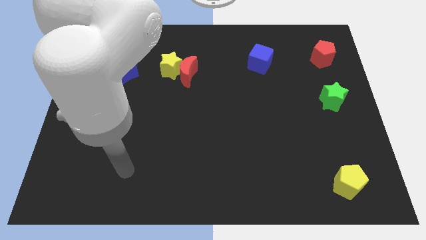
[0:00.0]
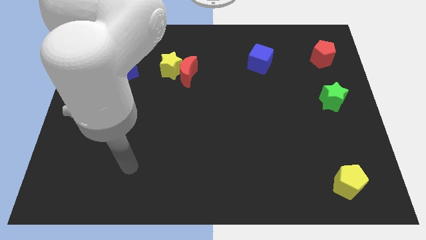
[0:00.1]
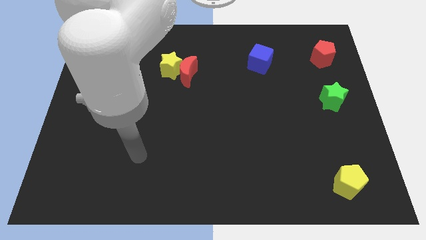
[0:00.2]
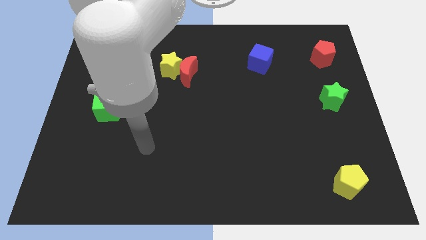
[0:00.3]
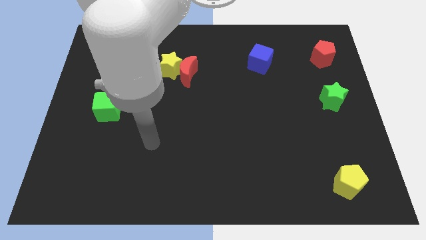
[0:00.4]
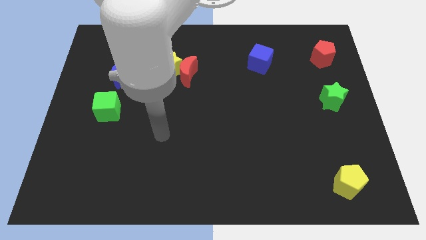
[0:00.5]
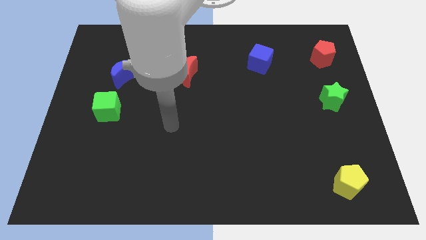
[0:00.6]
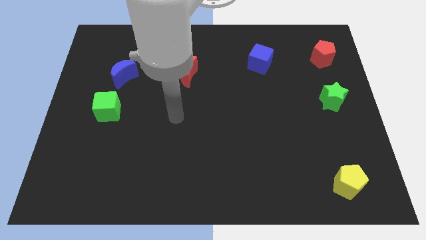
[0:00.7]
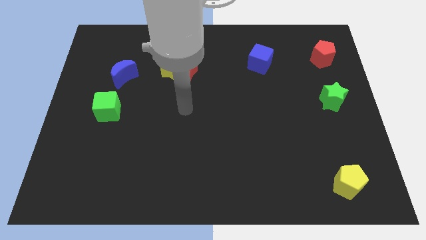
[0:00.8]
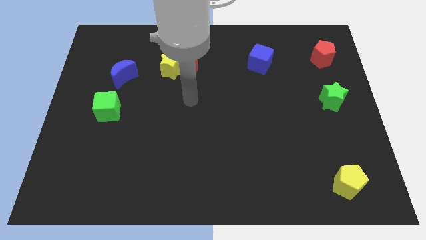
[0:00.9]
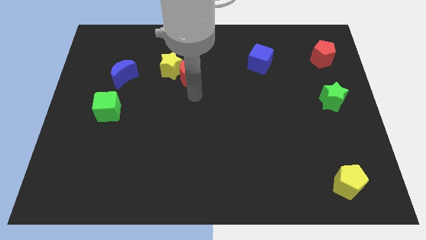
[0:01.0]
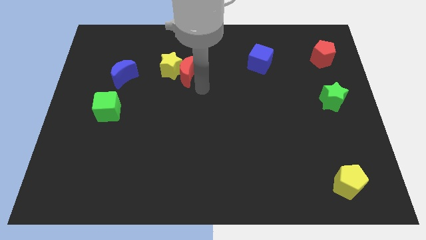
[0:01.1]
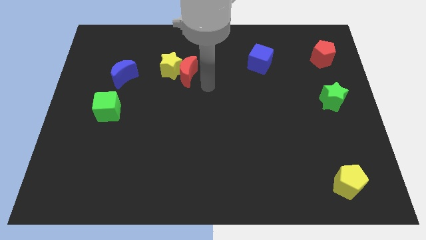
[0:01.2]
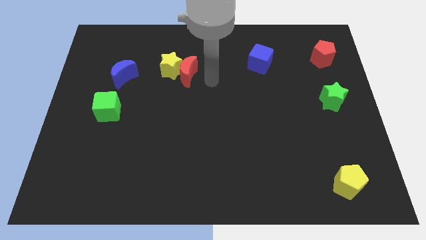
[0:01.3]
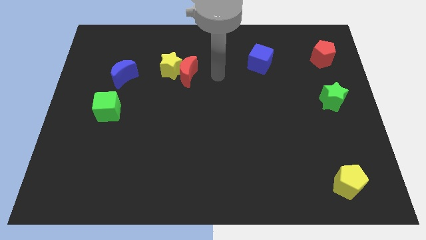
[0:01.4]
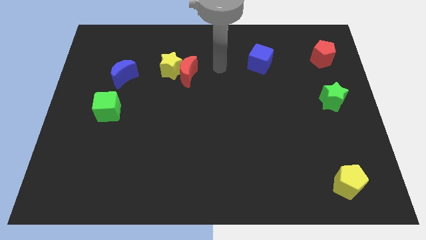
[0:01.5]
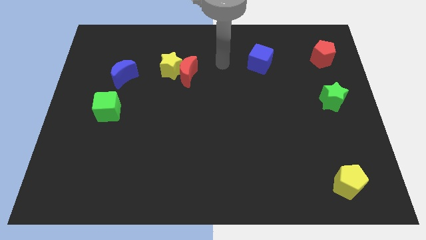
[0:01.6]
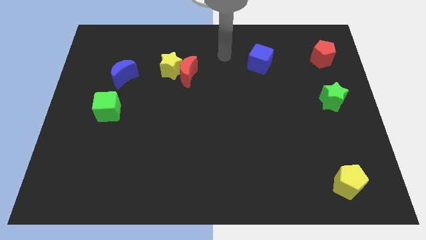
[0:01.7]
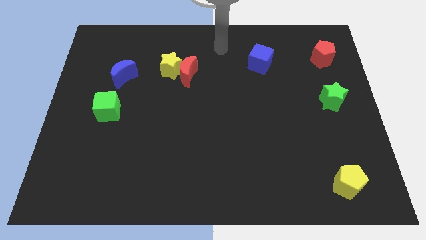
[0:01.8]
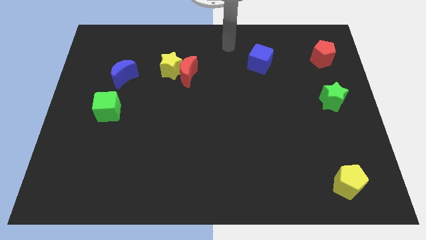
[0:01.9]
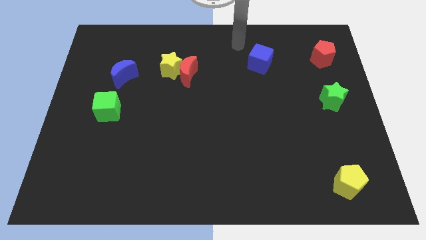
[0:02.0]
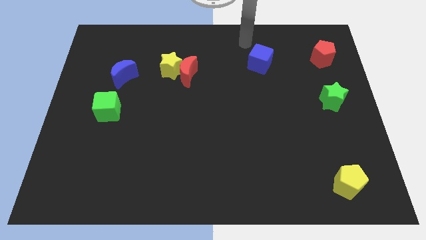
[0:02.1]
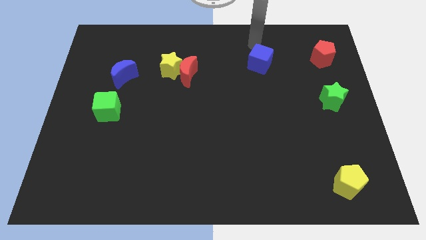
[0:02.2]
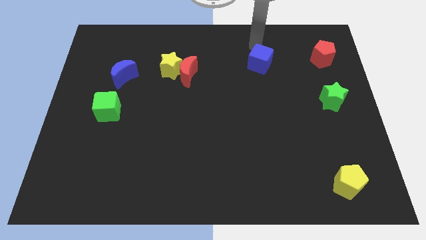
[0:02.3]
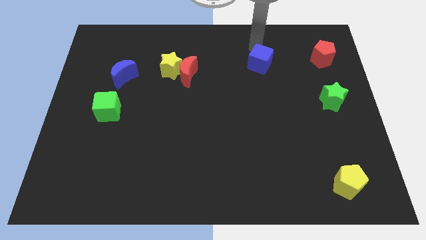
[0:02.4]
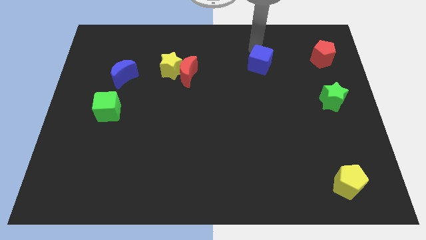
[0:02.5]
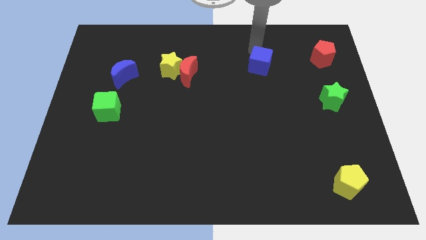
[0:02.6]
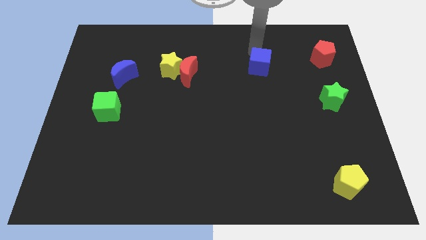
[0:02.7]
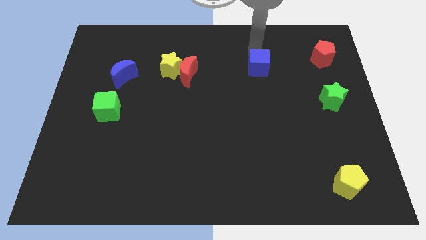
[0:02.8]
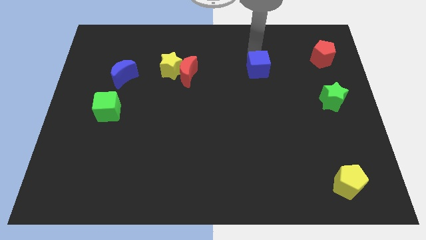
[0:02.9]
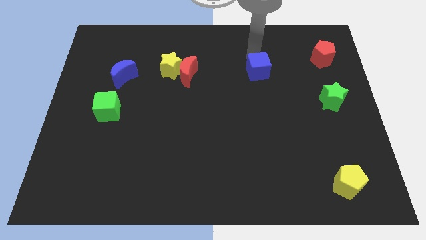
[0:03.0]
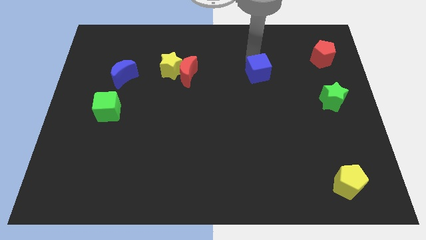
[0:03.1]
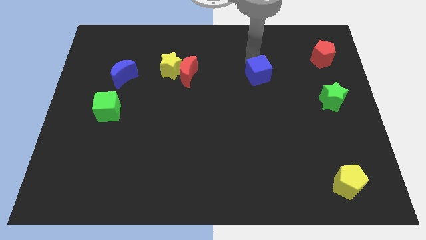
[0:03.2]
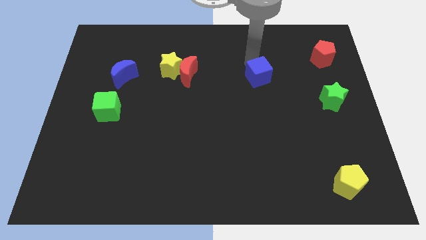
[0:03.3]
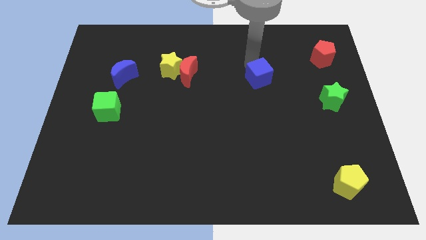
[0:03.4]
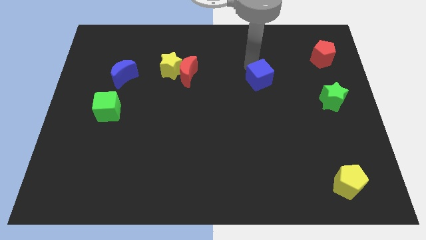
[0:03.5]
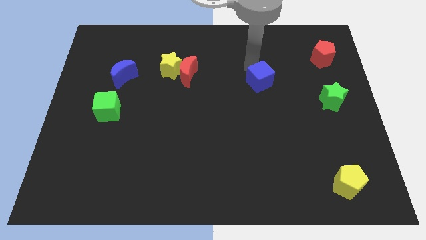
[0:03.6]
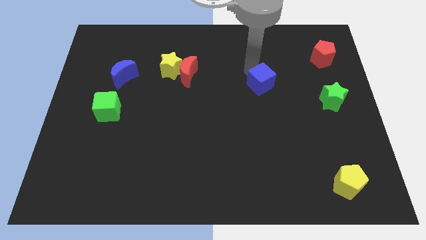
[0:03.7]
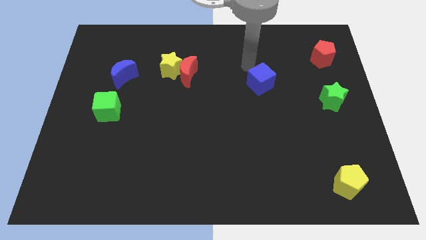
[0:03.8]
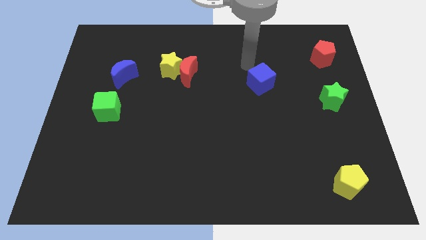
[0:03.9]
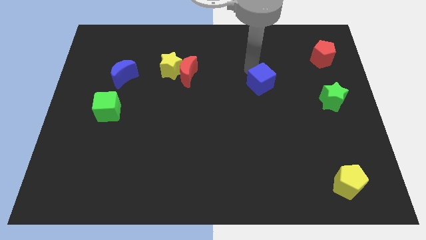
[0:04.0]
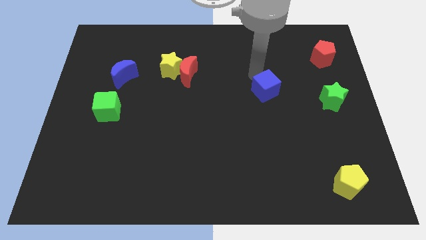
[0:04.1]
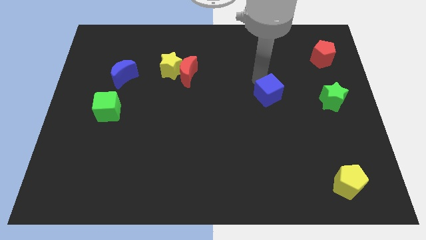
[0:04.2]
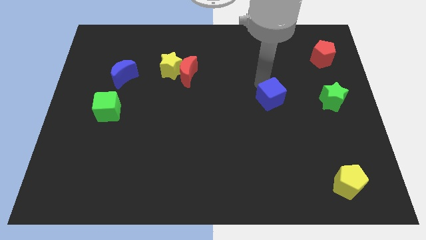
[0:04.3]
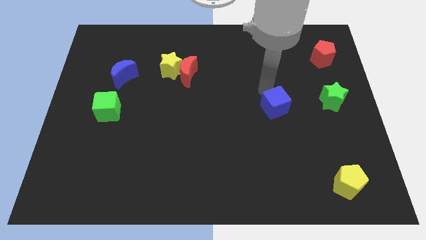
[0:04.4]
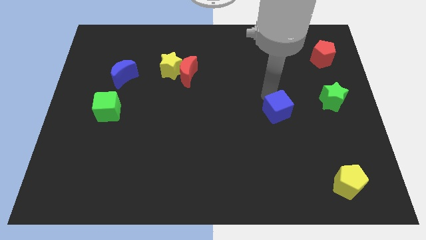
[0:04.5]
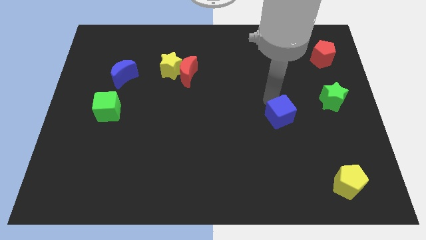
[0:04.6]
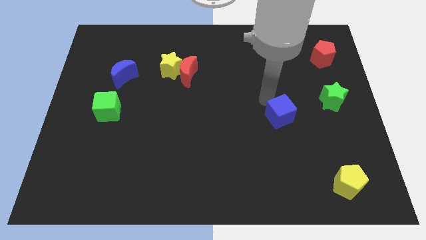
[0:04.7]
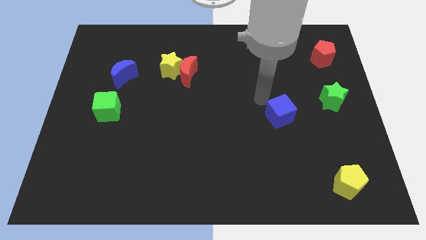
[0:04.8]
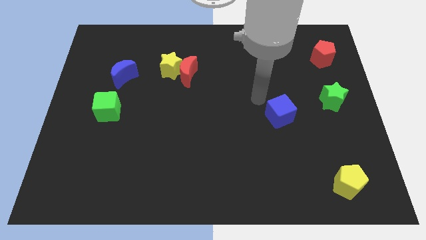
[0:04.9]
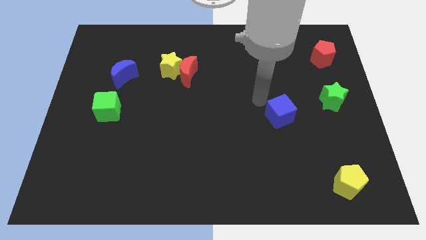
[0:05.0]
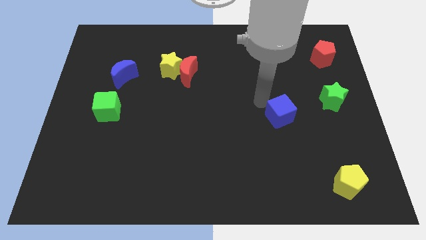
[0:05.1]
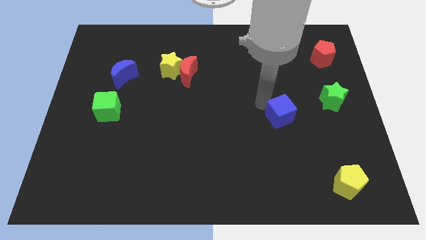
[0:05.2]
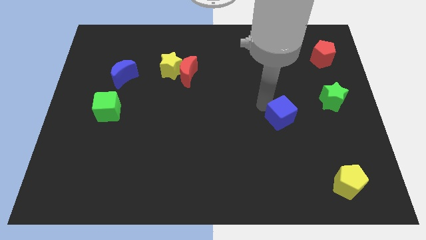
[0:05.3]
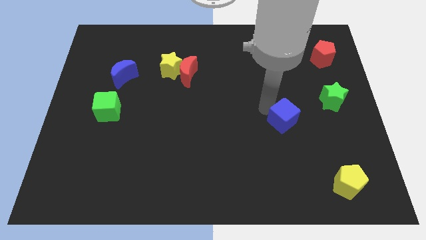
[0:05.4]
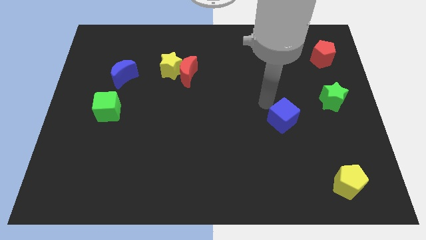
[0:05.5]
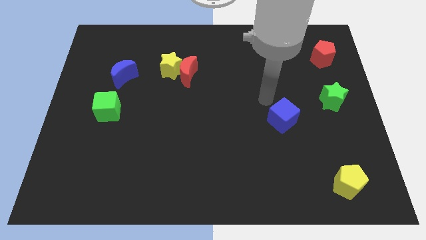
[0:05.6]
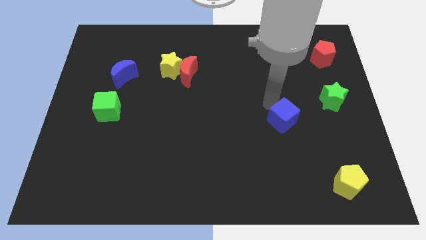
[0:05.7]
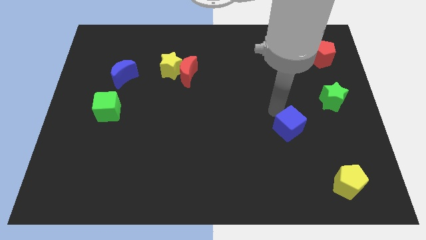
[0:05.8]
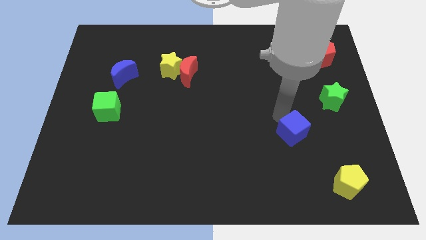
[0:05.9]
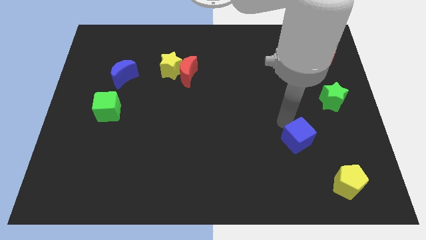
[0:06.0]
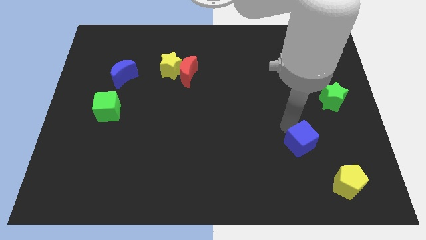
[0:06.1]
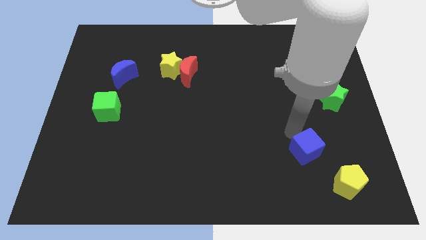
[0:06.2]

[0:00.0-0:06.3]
put the blue cube to the top left of the yellow pentagon
